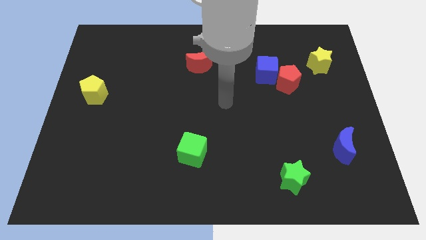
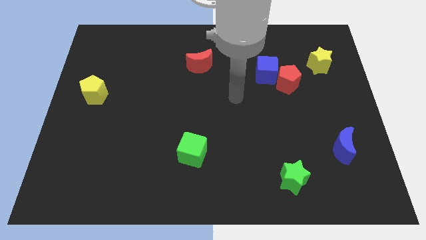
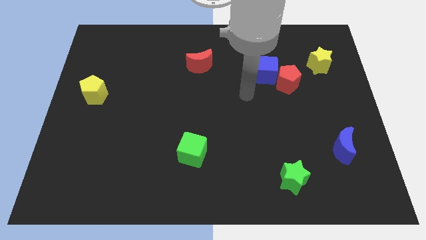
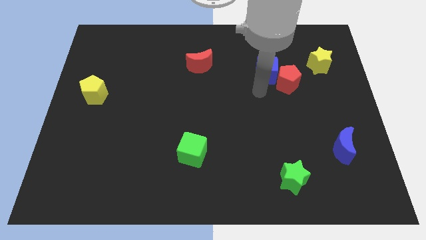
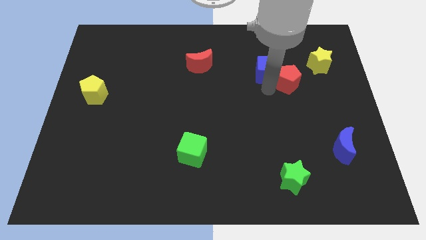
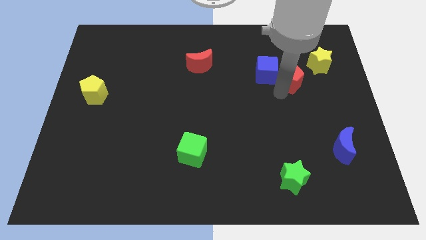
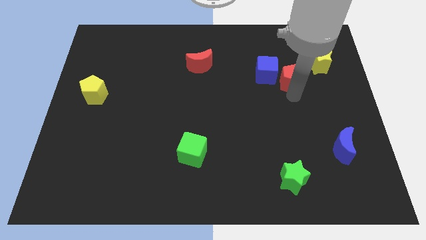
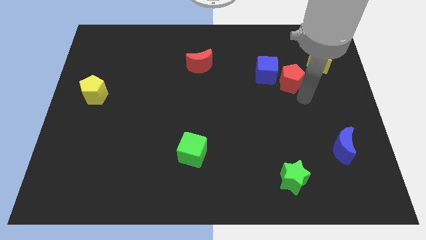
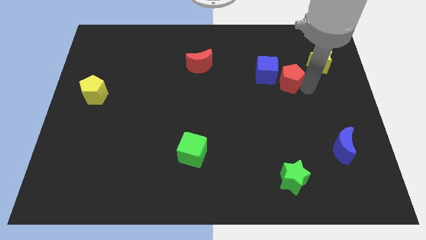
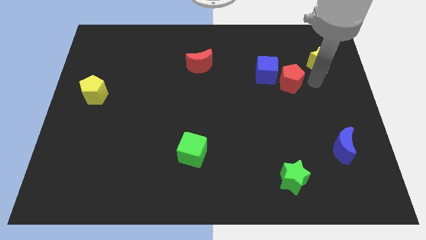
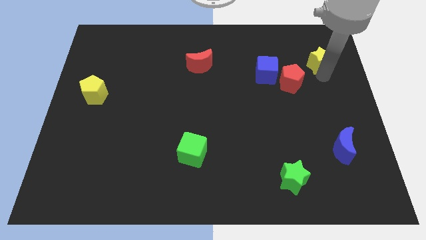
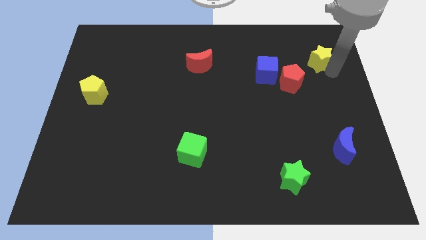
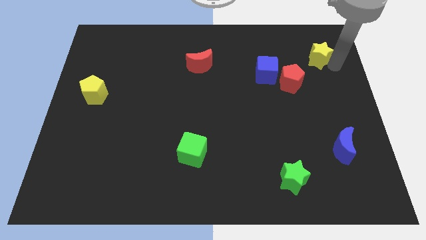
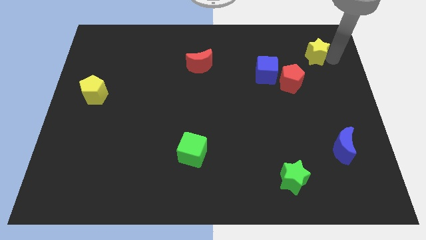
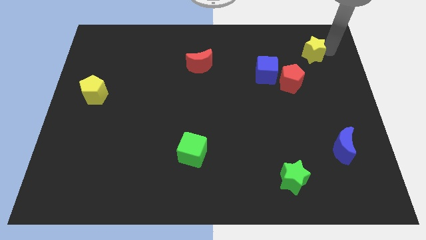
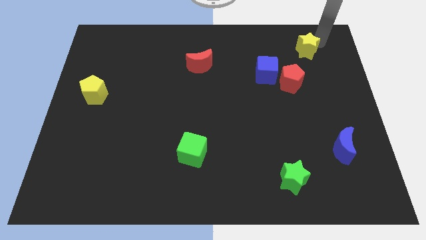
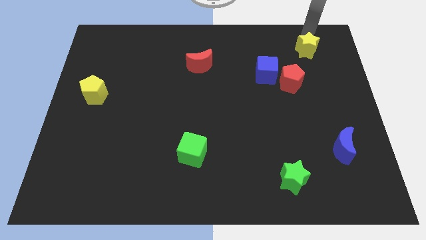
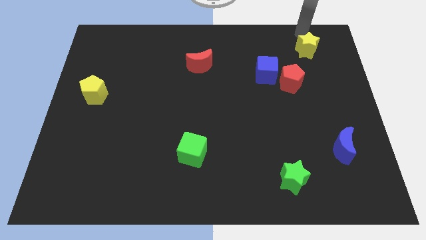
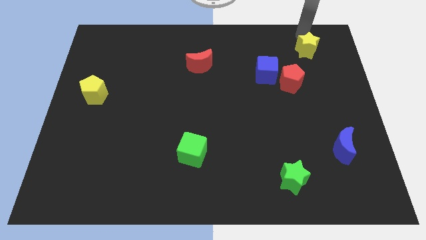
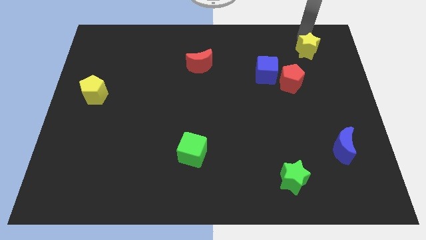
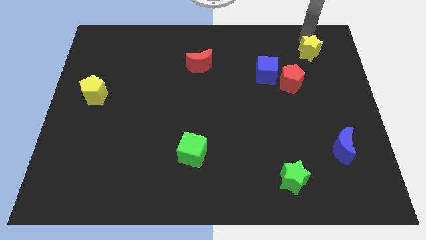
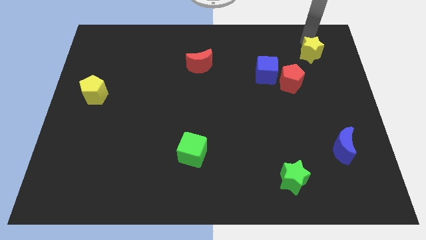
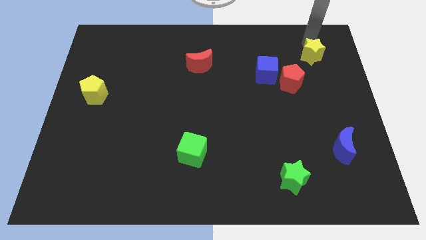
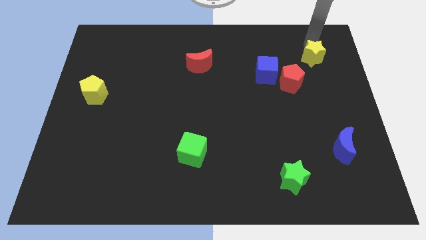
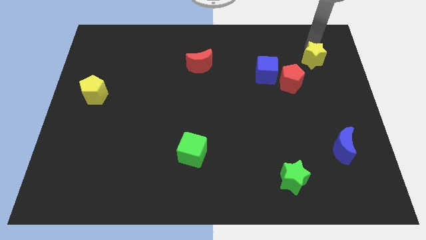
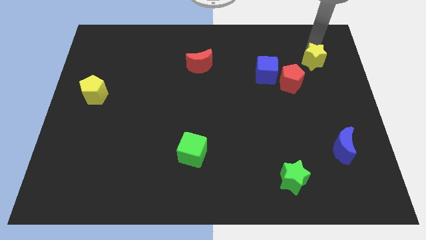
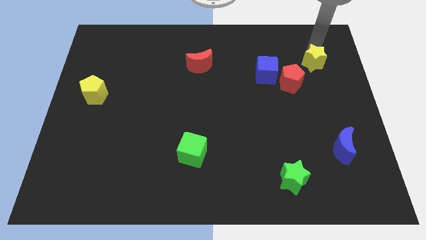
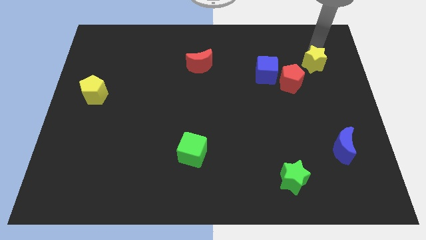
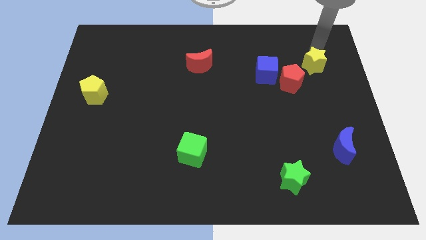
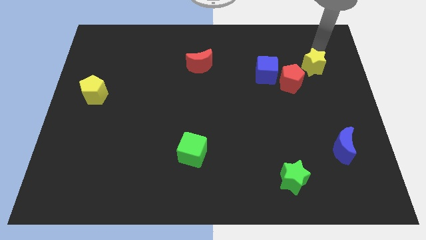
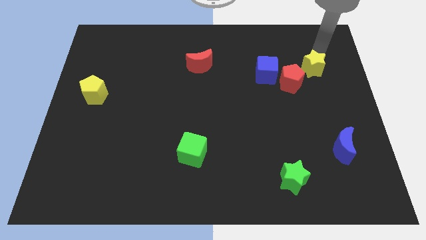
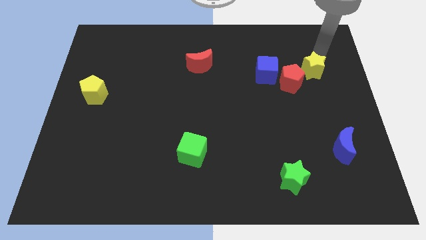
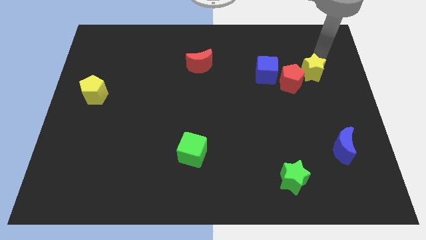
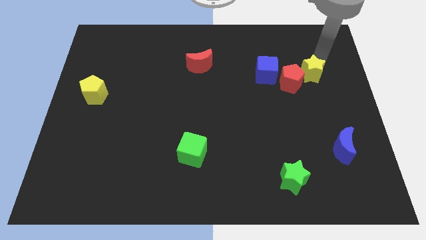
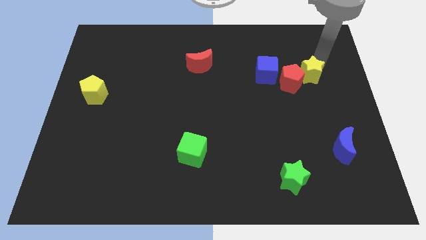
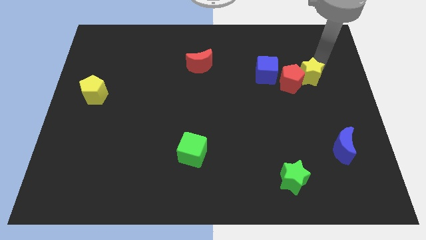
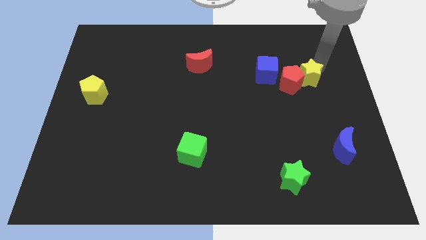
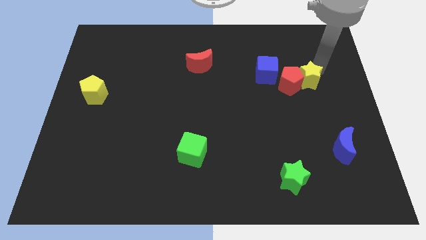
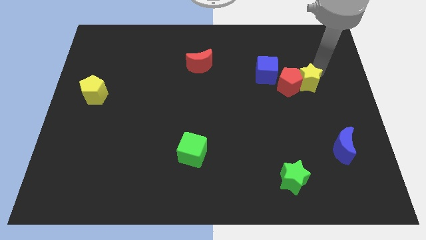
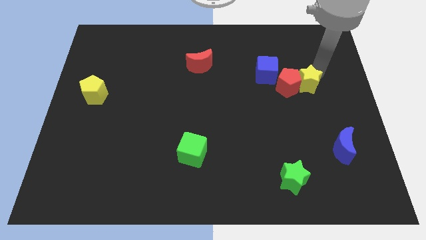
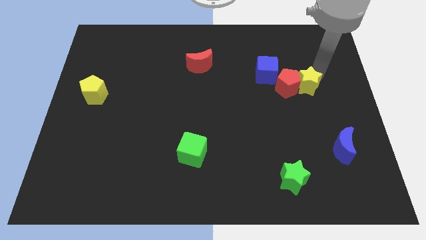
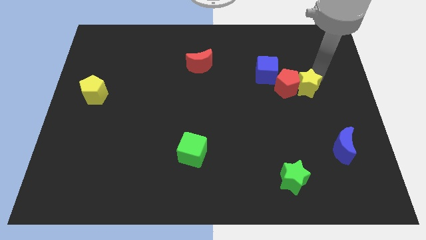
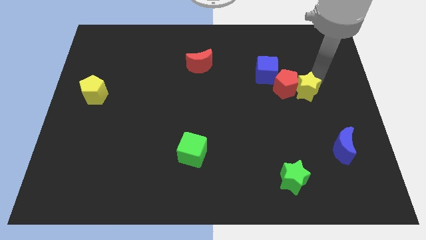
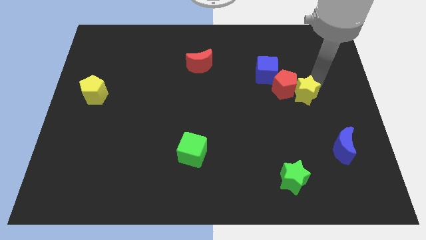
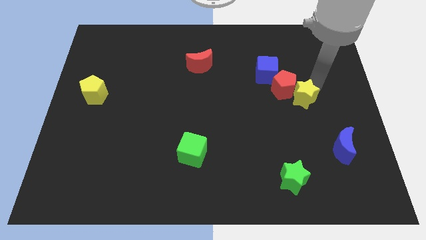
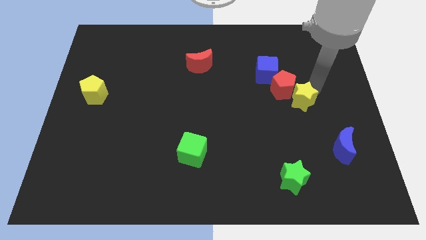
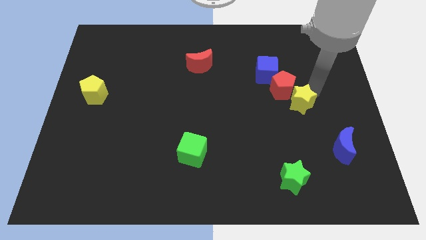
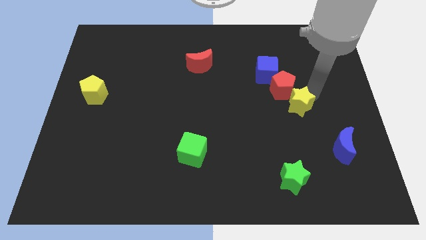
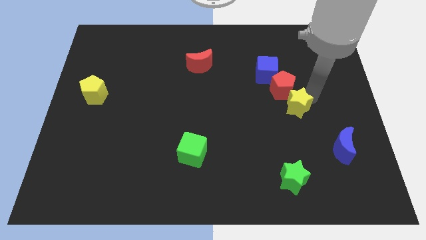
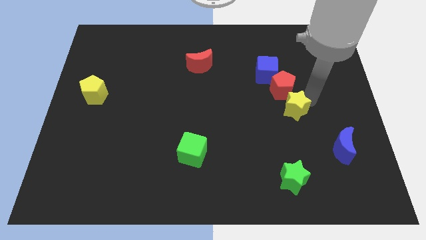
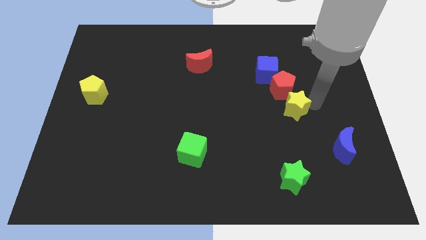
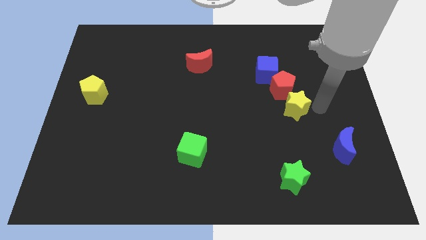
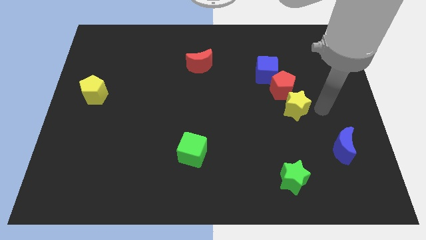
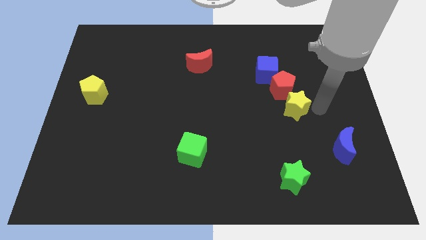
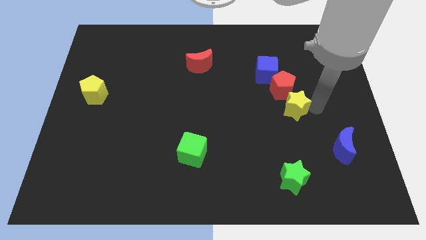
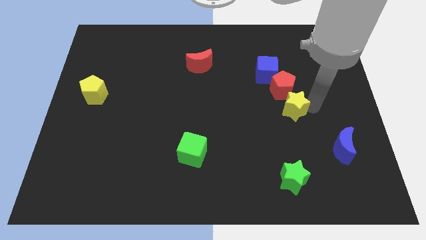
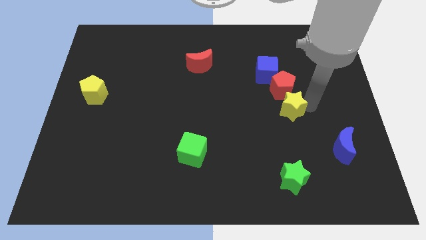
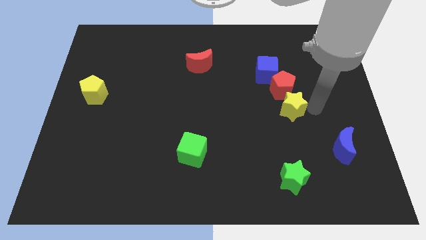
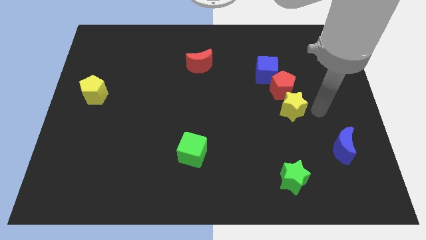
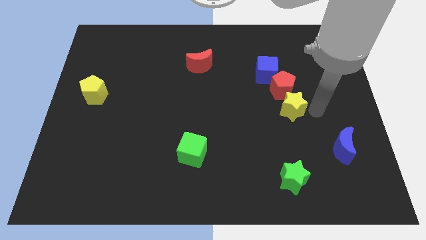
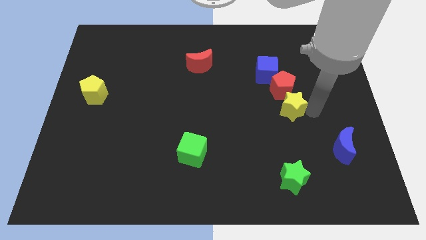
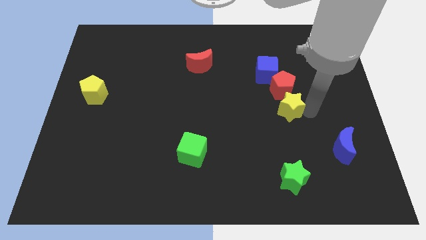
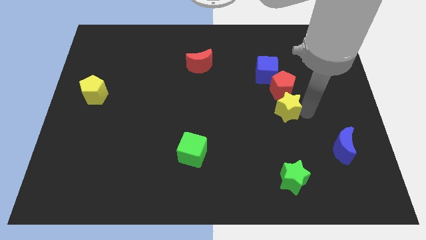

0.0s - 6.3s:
slide the yellow star diagonally down and to the left of the red pentagon

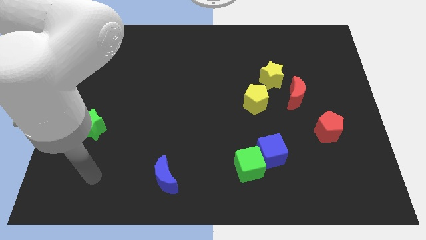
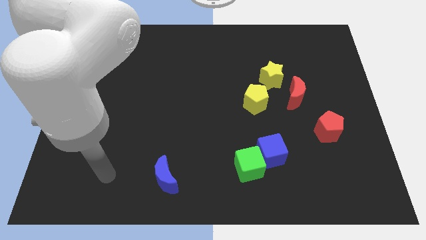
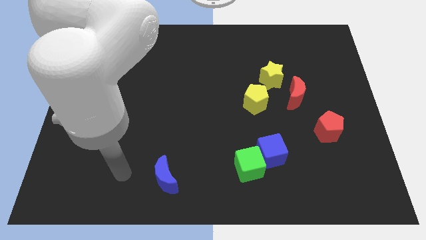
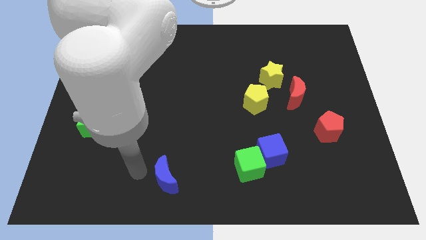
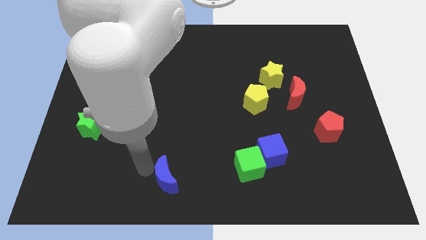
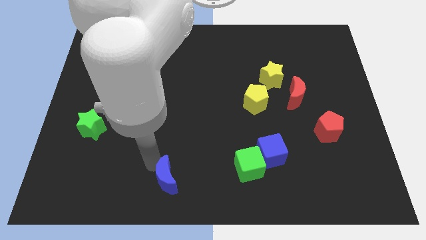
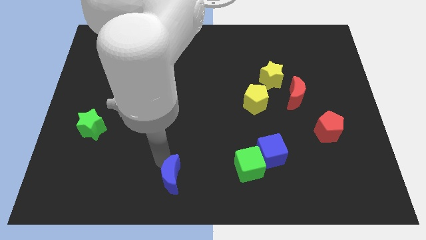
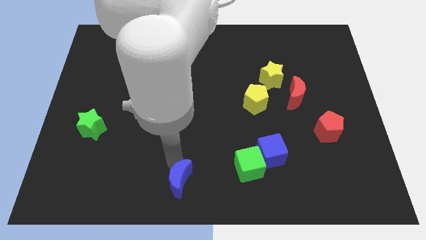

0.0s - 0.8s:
push the green cube right of the blue moon
